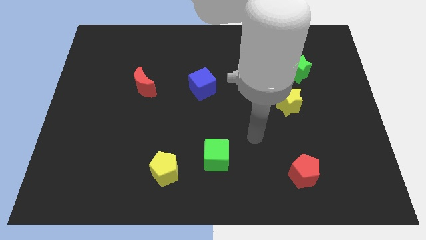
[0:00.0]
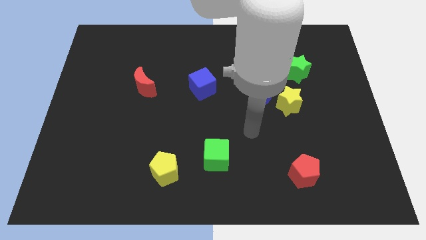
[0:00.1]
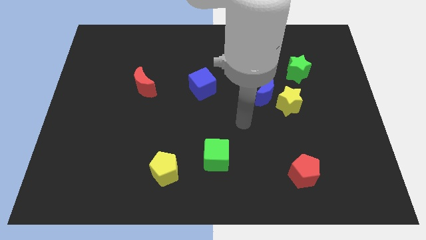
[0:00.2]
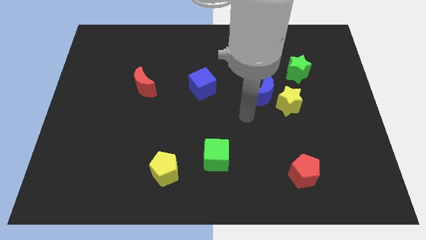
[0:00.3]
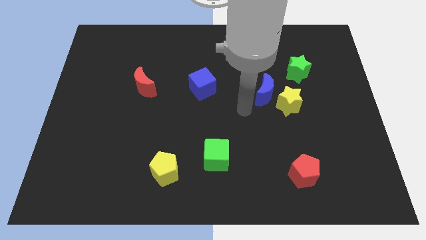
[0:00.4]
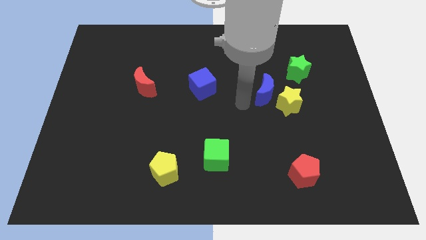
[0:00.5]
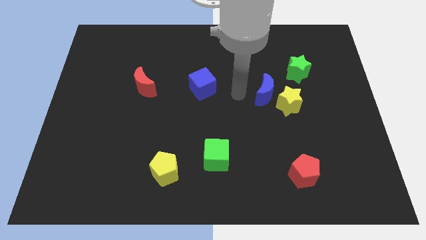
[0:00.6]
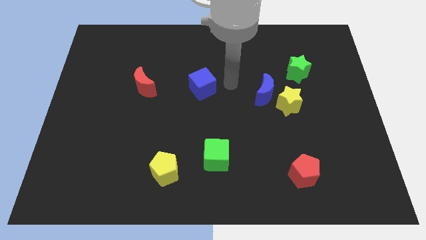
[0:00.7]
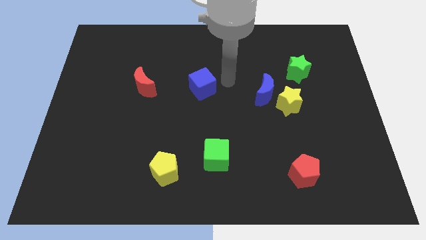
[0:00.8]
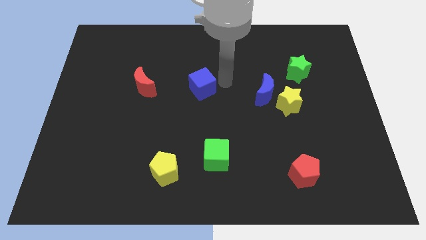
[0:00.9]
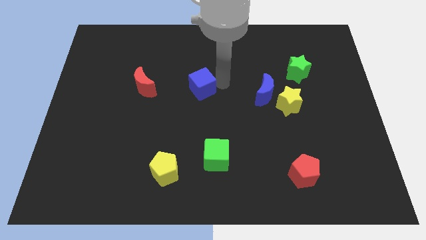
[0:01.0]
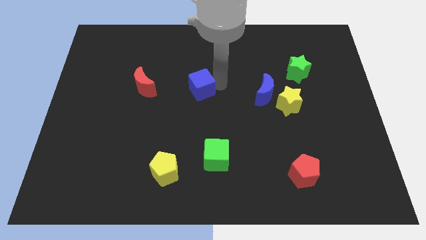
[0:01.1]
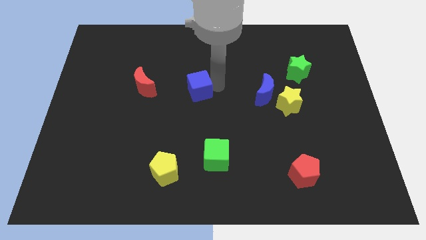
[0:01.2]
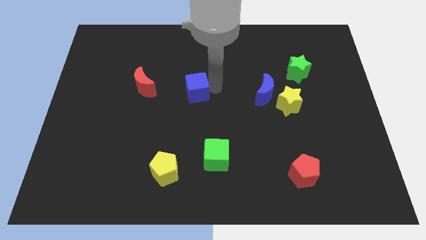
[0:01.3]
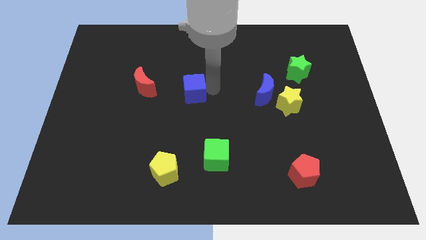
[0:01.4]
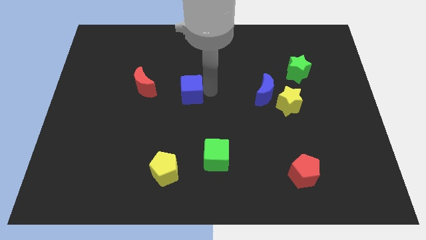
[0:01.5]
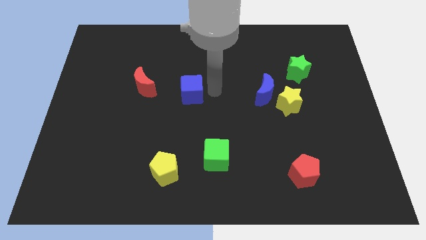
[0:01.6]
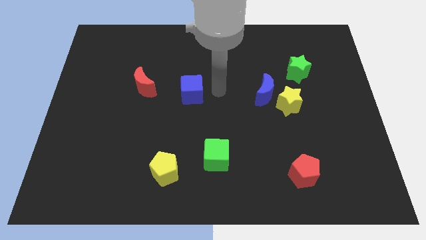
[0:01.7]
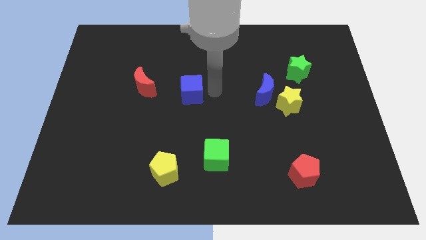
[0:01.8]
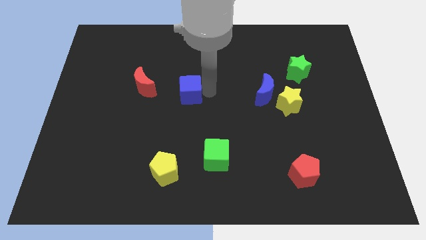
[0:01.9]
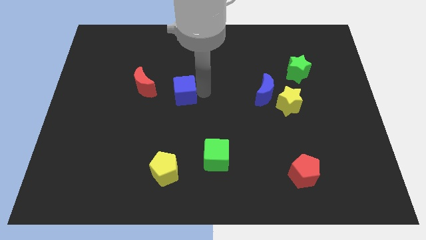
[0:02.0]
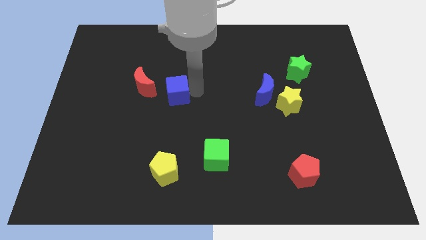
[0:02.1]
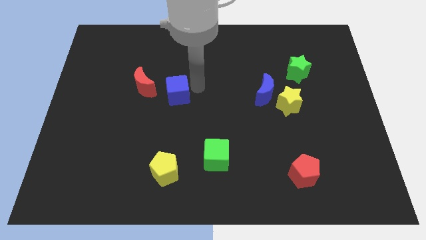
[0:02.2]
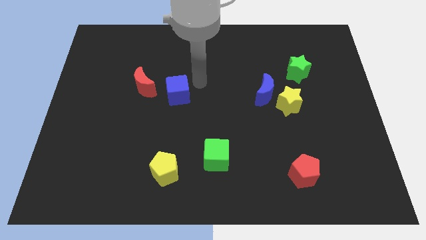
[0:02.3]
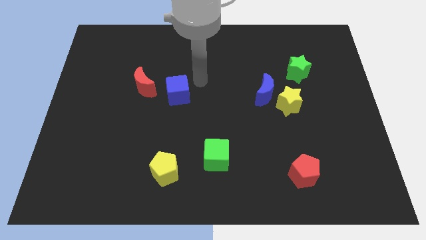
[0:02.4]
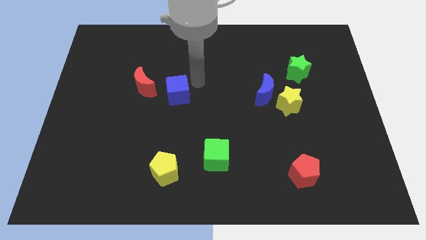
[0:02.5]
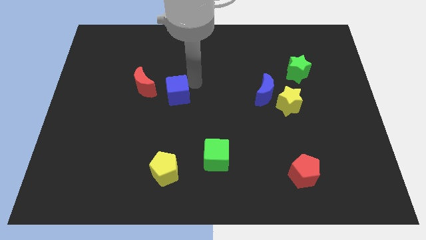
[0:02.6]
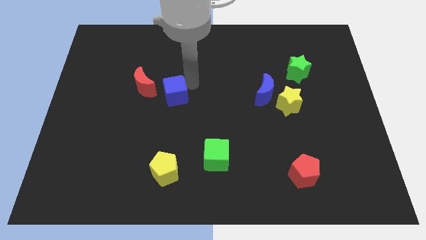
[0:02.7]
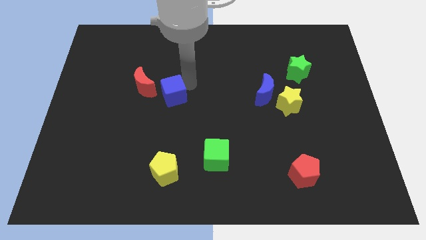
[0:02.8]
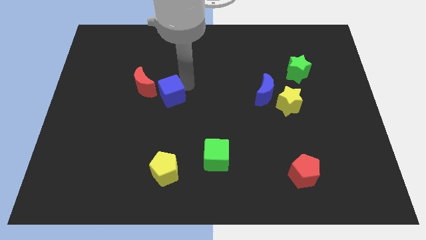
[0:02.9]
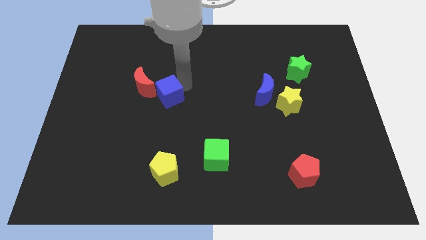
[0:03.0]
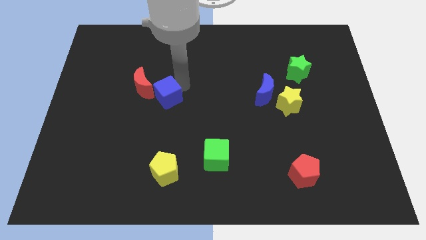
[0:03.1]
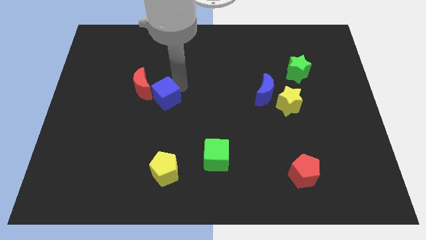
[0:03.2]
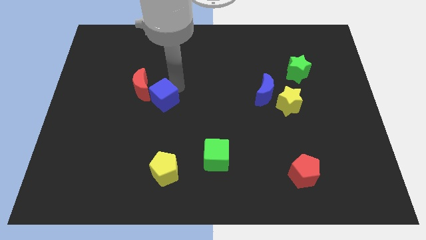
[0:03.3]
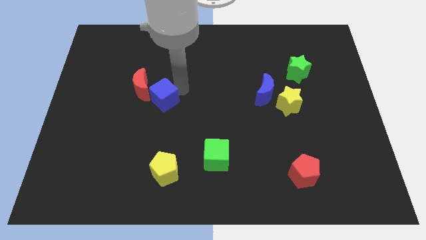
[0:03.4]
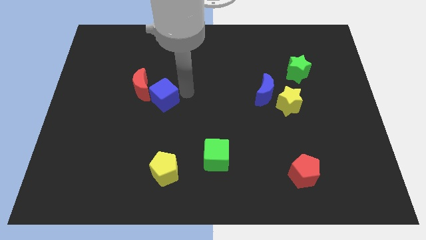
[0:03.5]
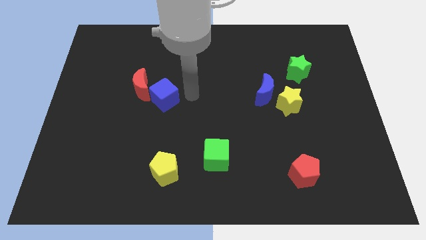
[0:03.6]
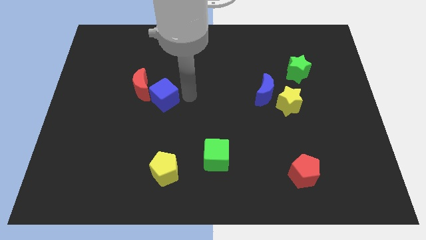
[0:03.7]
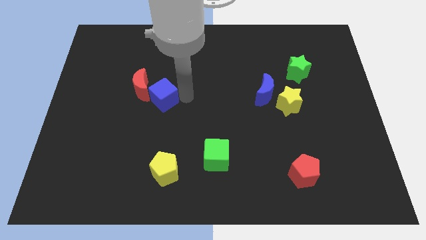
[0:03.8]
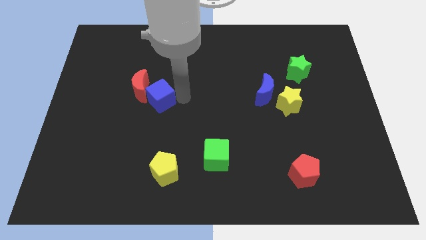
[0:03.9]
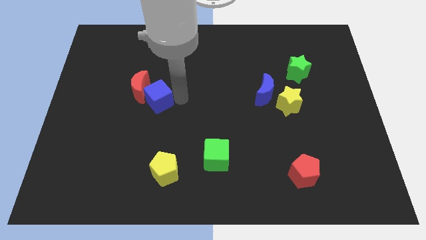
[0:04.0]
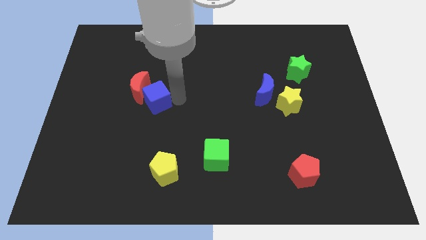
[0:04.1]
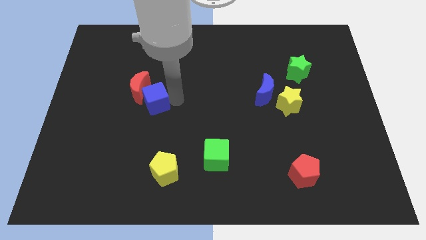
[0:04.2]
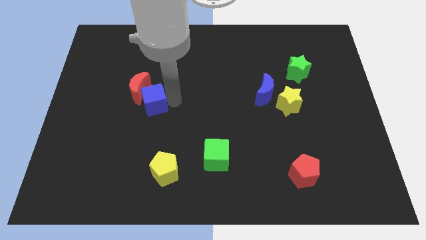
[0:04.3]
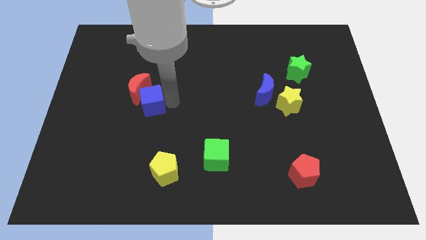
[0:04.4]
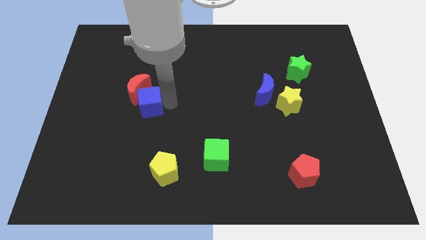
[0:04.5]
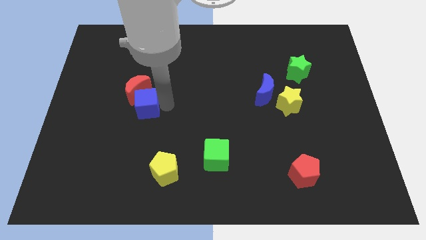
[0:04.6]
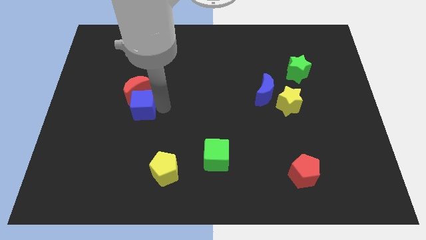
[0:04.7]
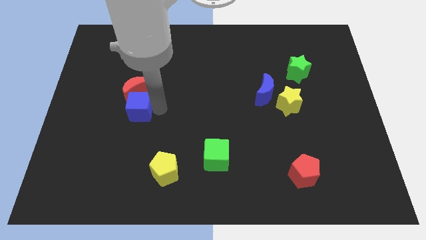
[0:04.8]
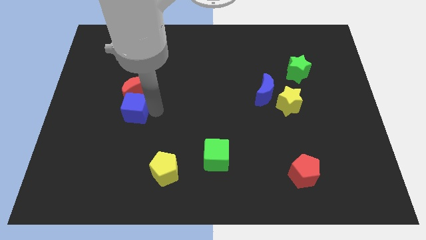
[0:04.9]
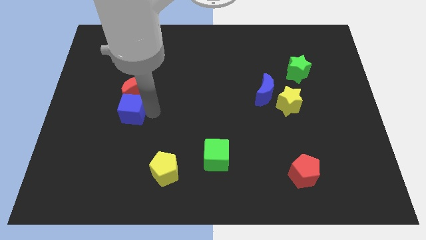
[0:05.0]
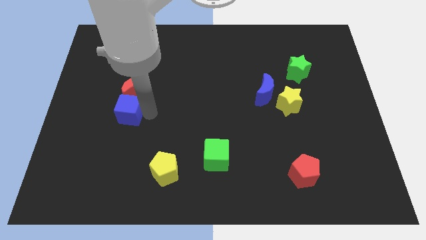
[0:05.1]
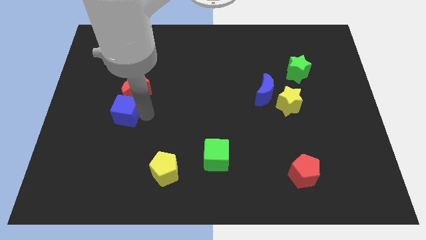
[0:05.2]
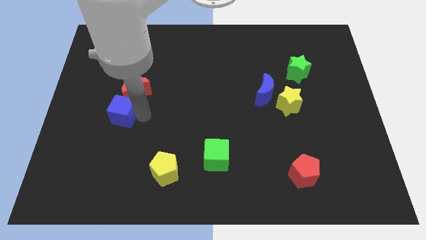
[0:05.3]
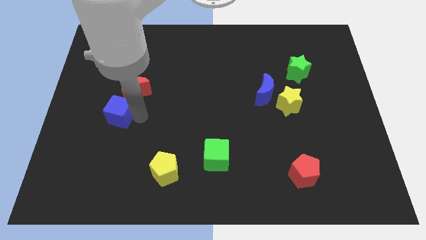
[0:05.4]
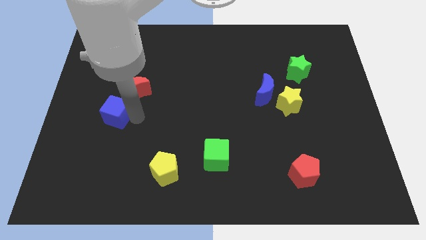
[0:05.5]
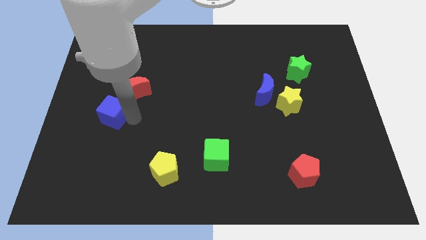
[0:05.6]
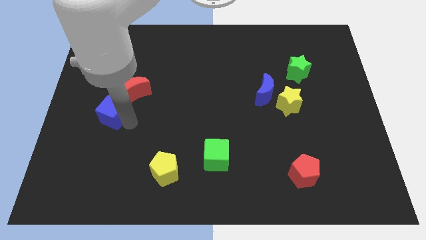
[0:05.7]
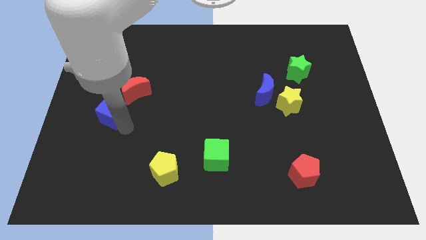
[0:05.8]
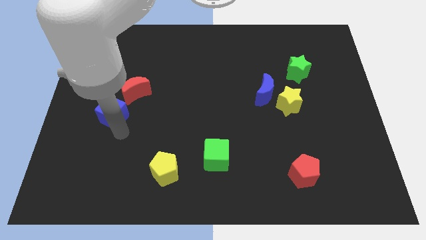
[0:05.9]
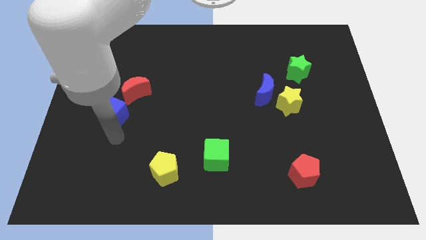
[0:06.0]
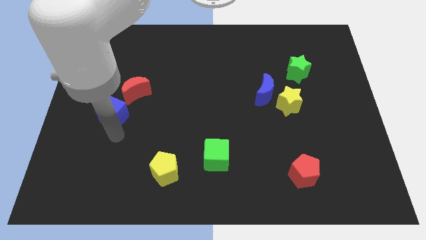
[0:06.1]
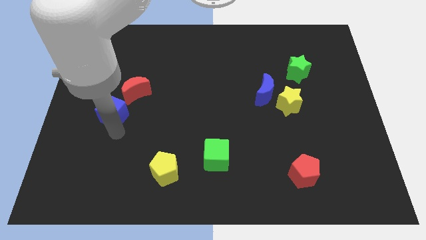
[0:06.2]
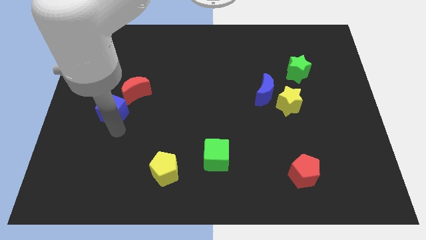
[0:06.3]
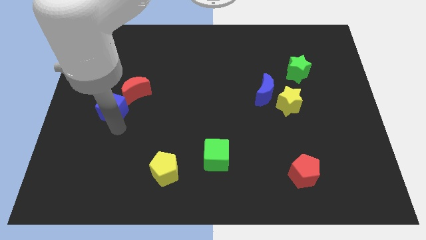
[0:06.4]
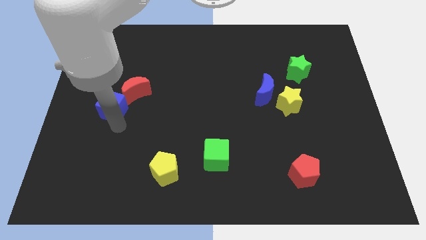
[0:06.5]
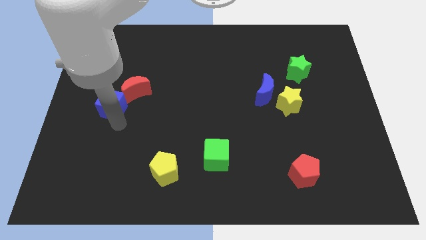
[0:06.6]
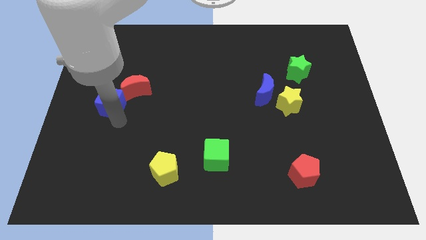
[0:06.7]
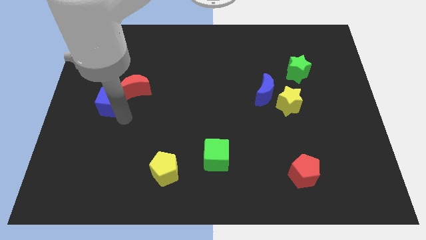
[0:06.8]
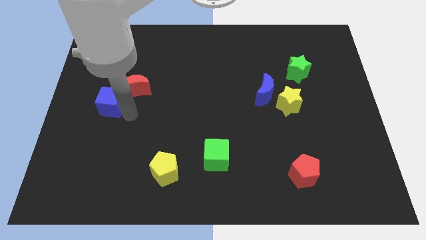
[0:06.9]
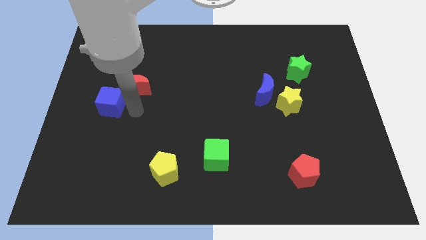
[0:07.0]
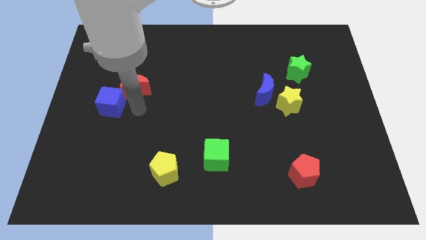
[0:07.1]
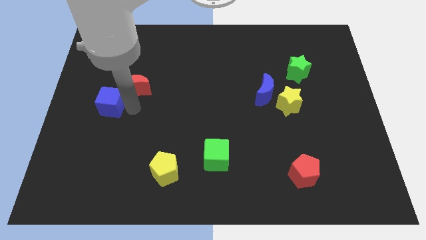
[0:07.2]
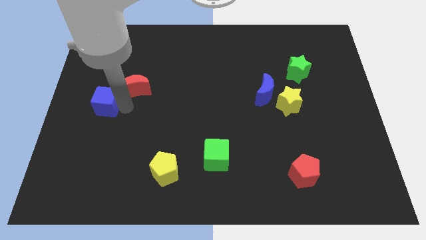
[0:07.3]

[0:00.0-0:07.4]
slide the blue cube to the left side of the board
